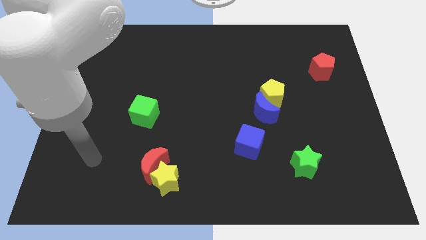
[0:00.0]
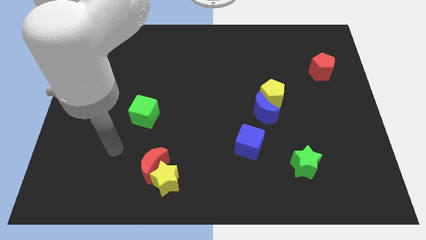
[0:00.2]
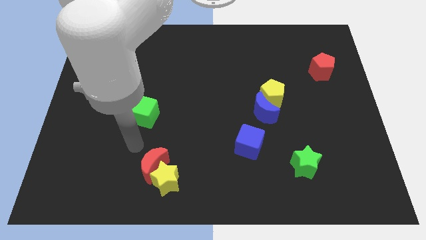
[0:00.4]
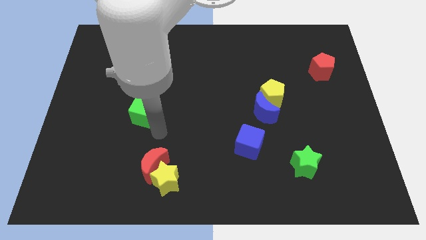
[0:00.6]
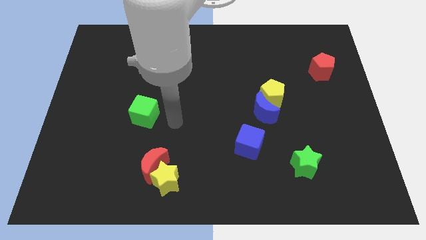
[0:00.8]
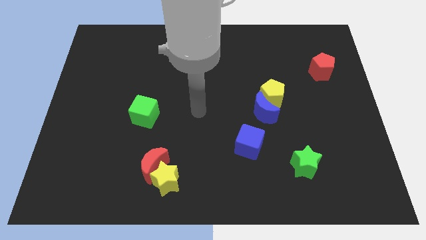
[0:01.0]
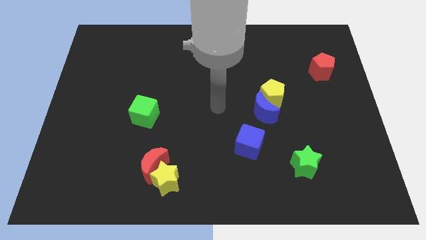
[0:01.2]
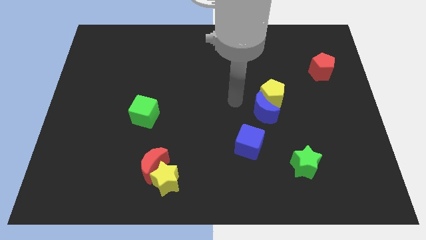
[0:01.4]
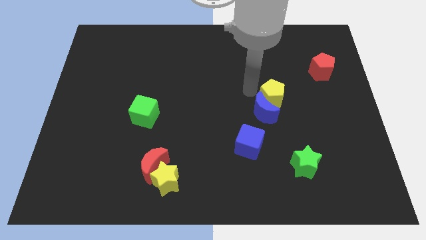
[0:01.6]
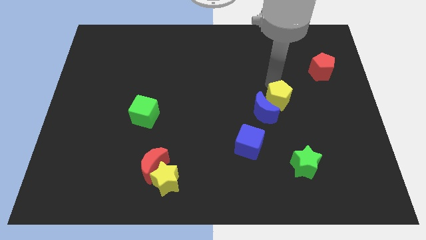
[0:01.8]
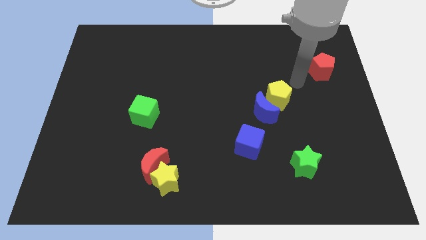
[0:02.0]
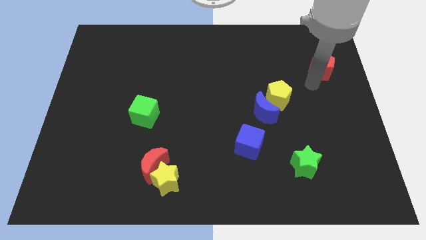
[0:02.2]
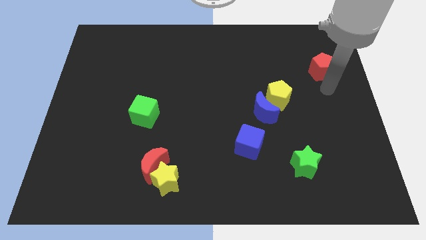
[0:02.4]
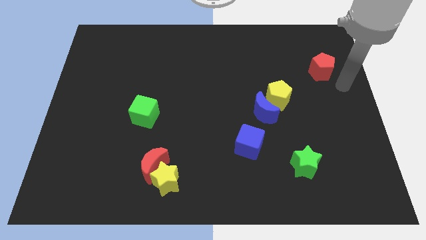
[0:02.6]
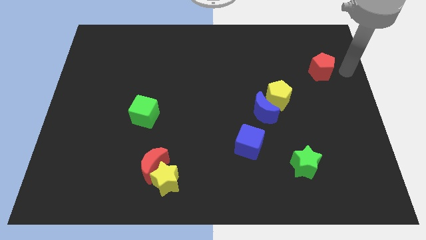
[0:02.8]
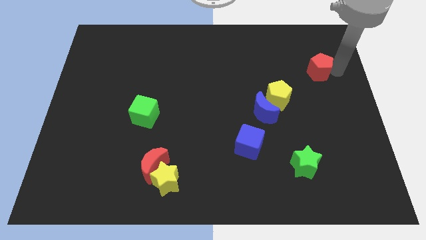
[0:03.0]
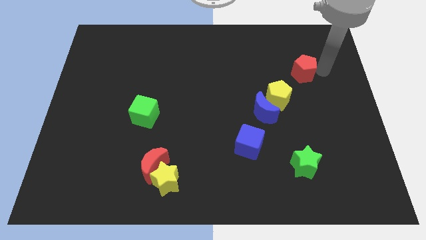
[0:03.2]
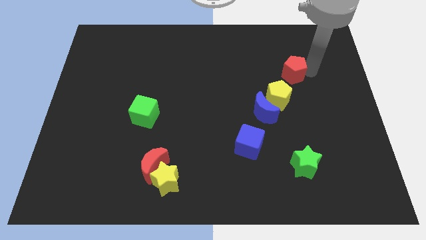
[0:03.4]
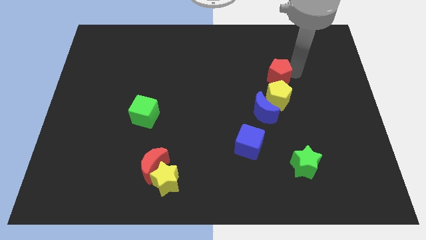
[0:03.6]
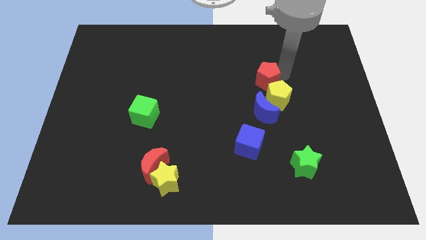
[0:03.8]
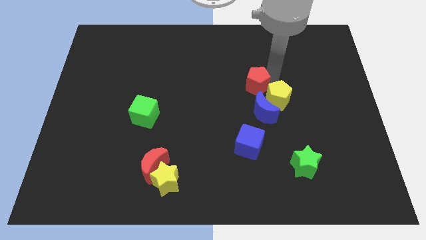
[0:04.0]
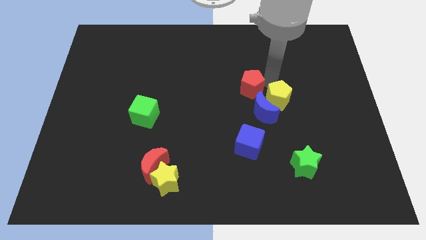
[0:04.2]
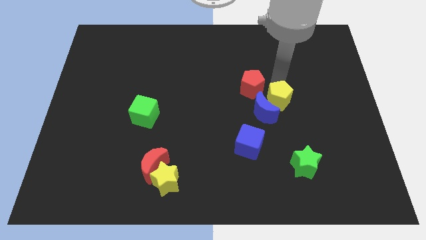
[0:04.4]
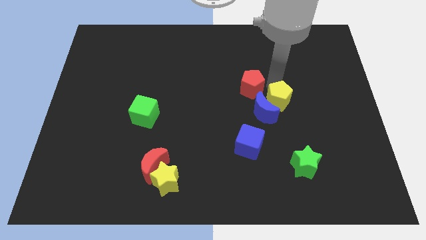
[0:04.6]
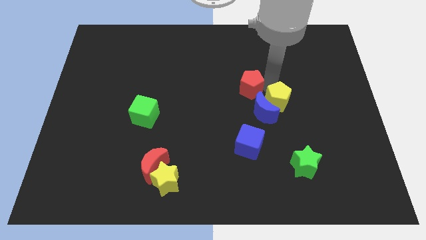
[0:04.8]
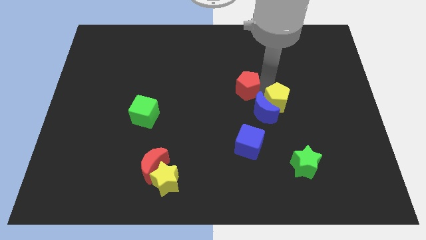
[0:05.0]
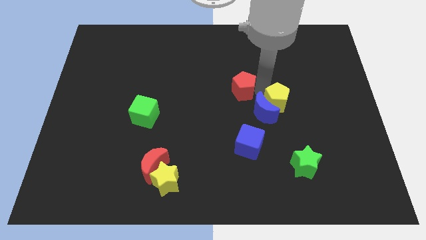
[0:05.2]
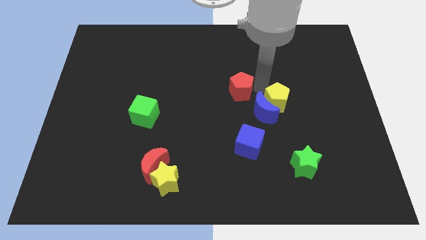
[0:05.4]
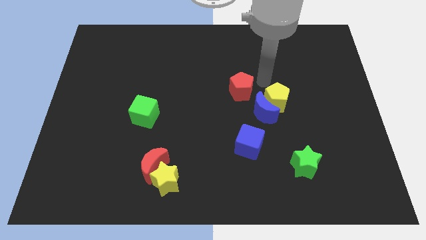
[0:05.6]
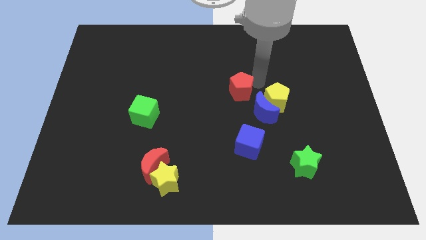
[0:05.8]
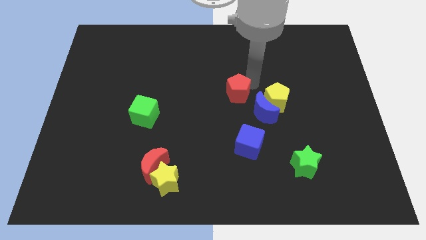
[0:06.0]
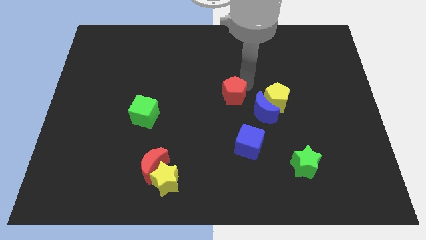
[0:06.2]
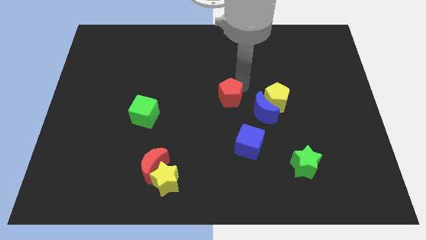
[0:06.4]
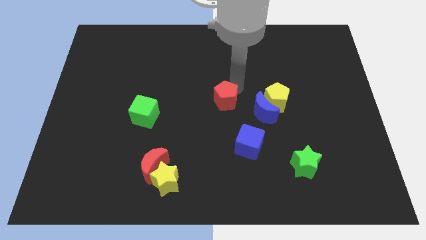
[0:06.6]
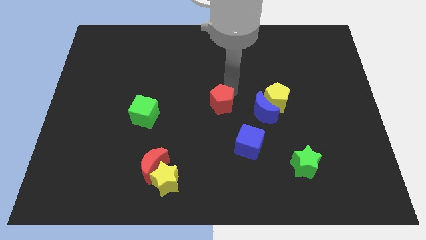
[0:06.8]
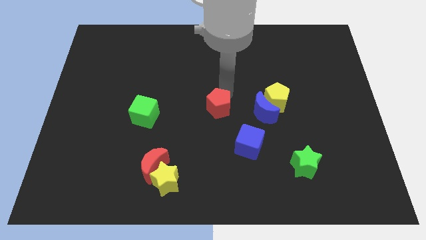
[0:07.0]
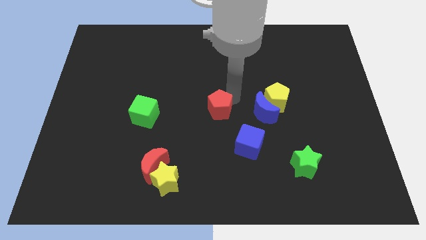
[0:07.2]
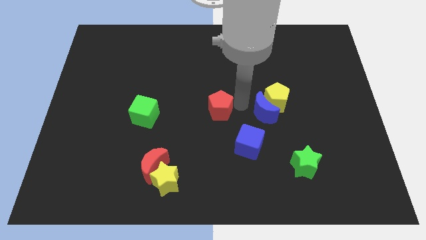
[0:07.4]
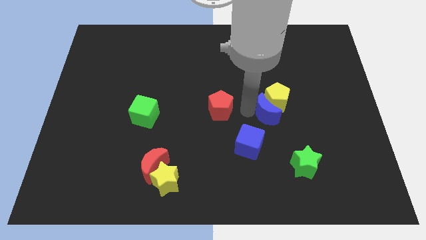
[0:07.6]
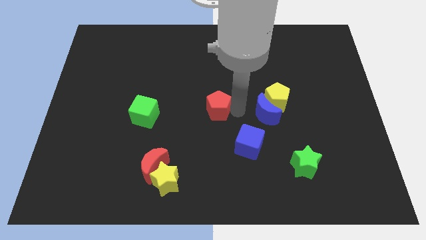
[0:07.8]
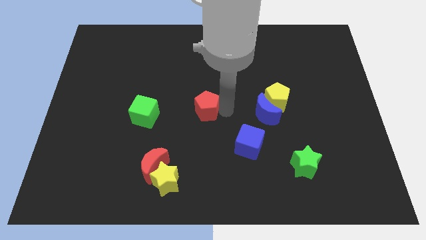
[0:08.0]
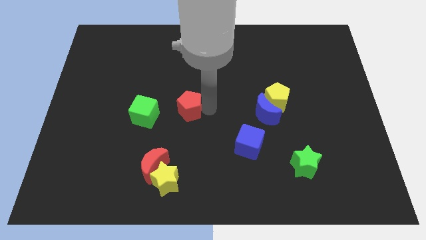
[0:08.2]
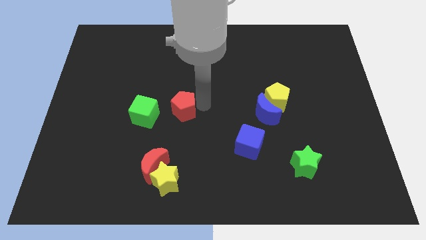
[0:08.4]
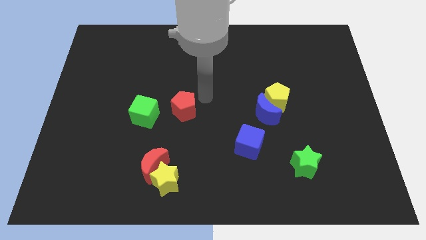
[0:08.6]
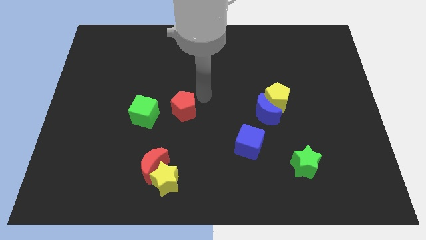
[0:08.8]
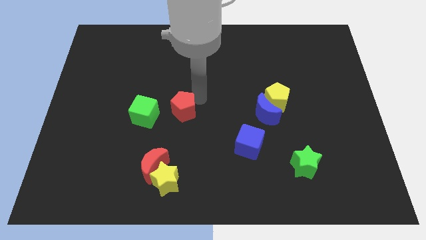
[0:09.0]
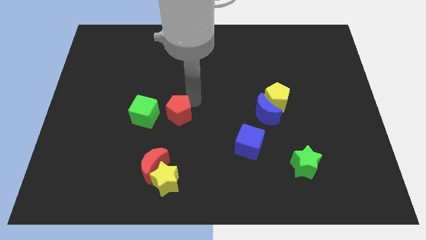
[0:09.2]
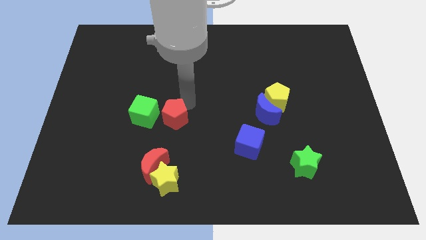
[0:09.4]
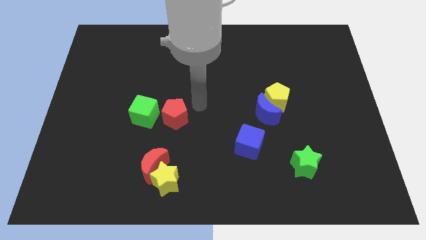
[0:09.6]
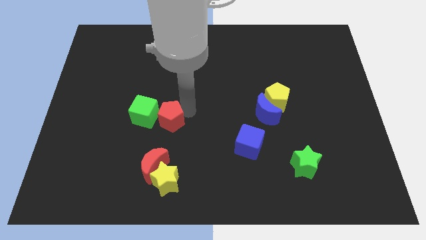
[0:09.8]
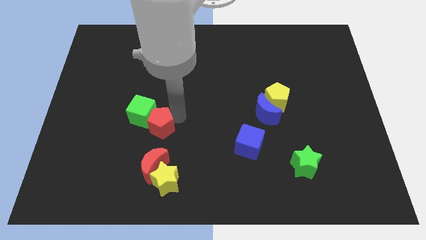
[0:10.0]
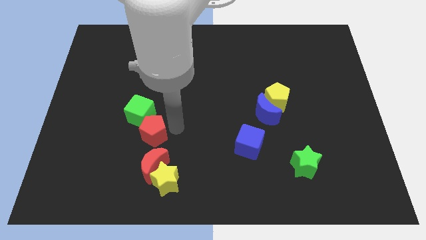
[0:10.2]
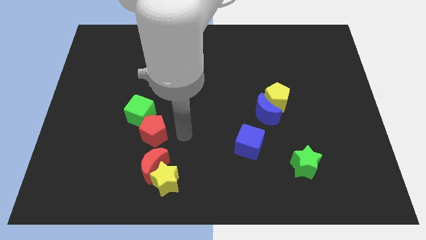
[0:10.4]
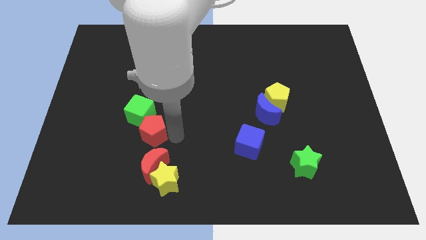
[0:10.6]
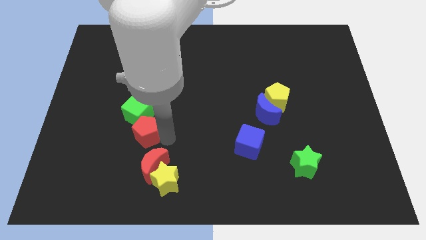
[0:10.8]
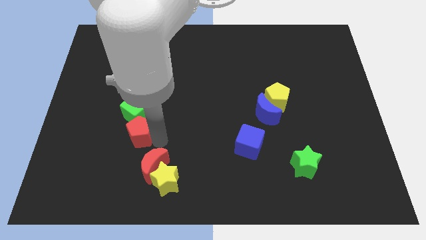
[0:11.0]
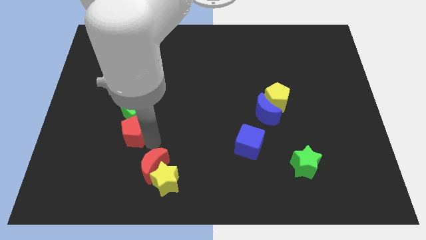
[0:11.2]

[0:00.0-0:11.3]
push the red pentagon to the bottom left of the green cube

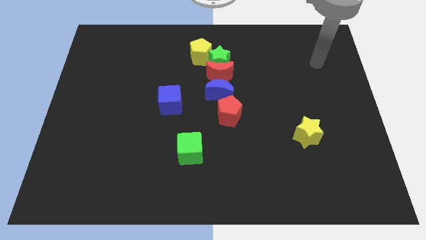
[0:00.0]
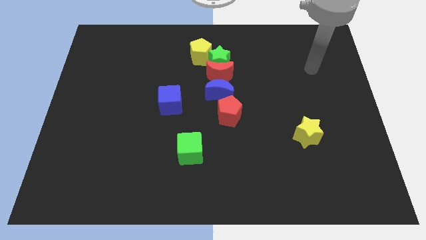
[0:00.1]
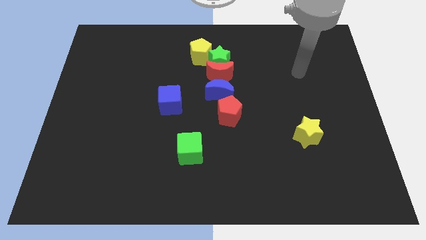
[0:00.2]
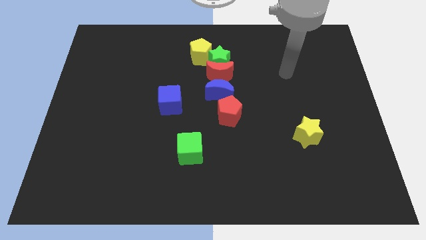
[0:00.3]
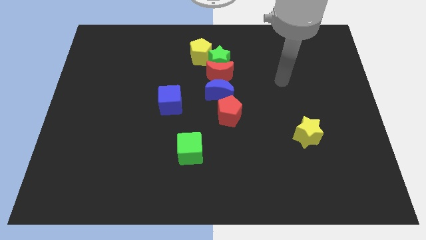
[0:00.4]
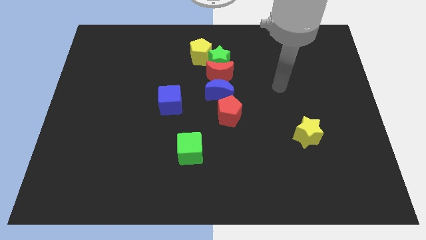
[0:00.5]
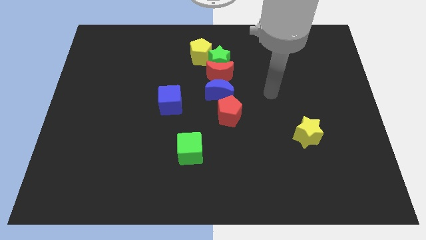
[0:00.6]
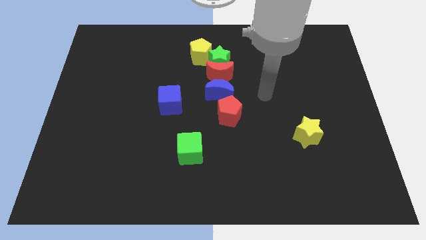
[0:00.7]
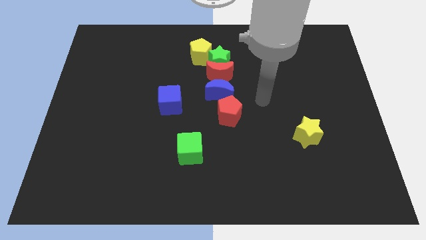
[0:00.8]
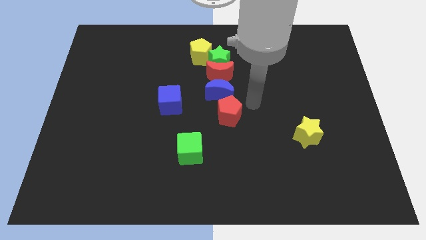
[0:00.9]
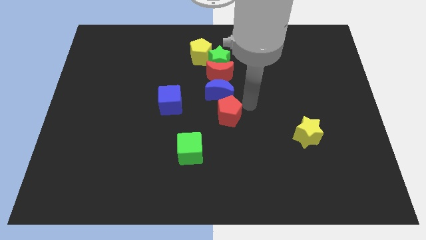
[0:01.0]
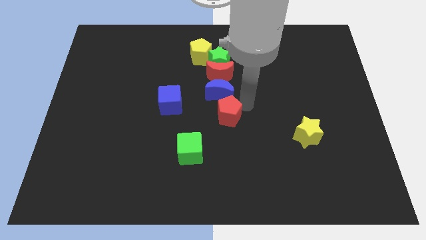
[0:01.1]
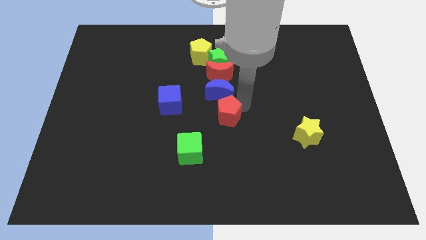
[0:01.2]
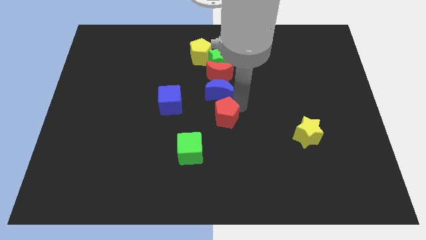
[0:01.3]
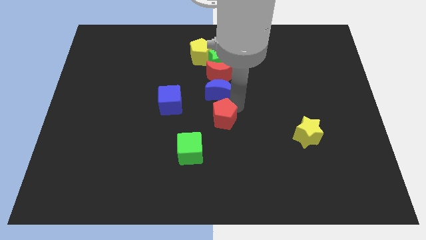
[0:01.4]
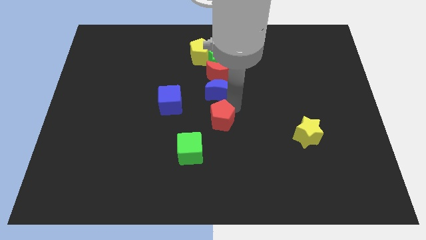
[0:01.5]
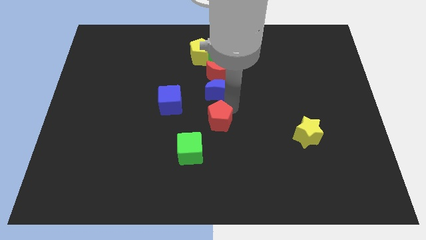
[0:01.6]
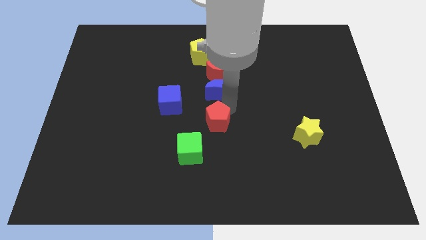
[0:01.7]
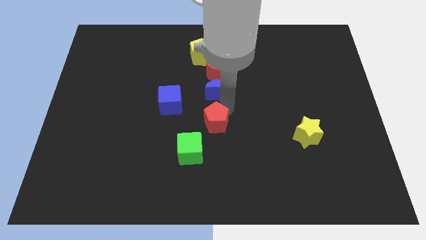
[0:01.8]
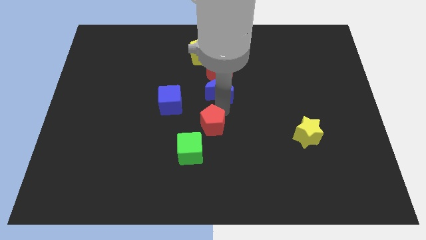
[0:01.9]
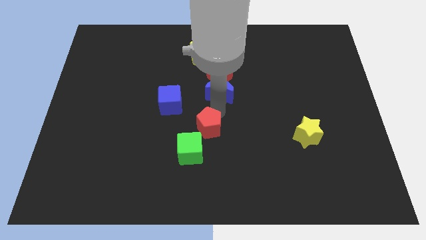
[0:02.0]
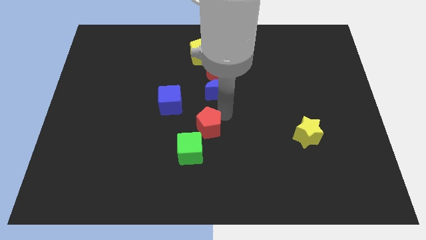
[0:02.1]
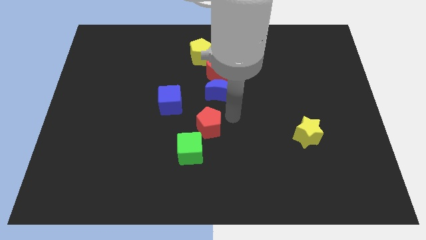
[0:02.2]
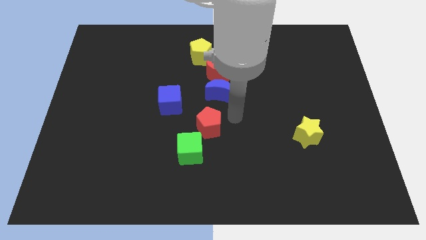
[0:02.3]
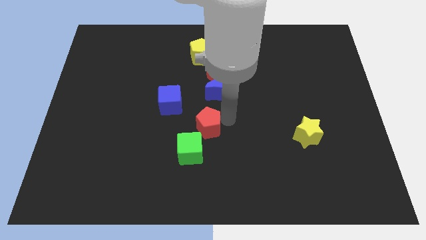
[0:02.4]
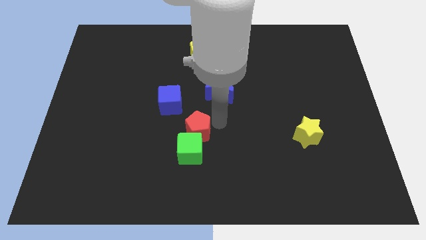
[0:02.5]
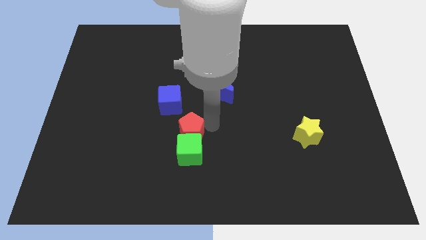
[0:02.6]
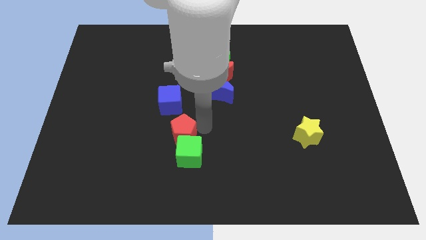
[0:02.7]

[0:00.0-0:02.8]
put the red pentagon to the bottom of the blue cube
